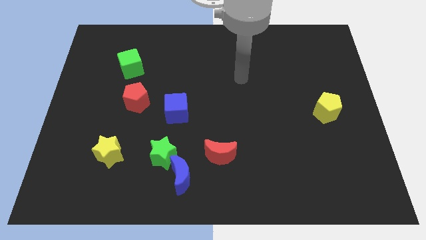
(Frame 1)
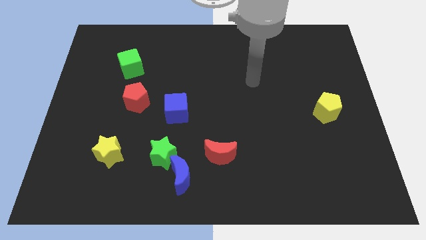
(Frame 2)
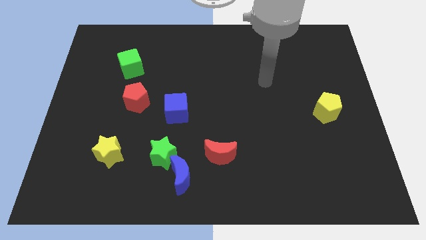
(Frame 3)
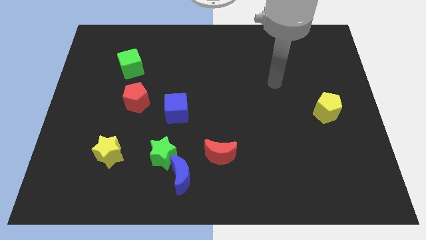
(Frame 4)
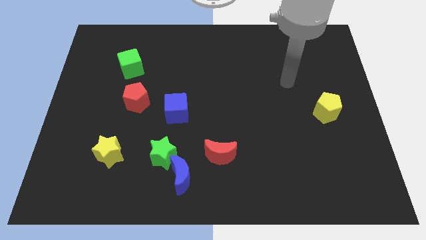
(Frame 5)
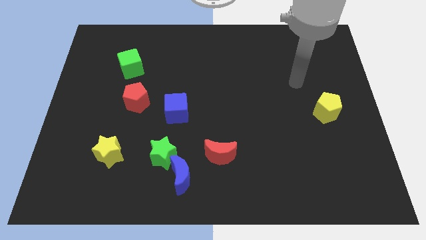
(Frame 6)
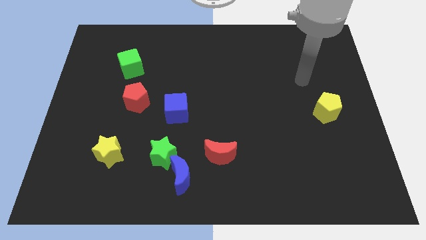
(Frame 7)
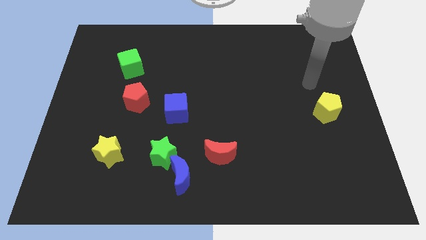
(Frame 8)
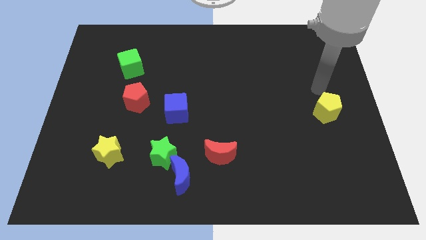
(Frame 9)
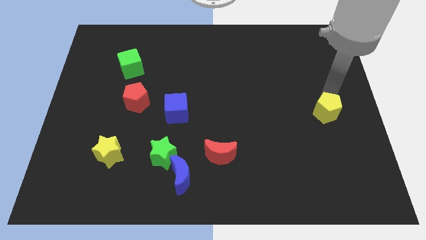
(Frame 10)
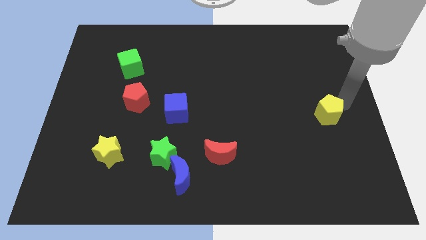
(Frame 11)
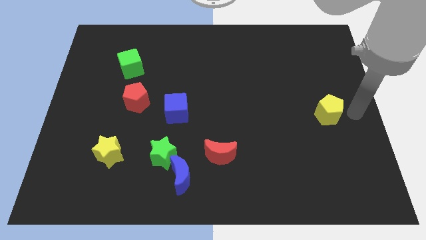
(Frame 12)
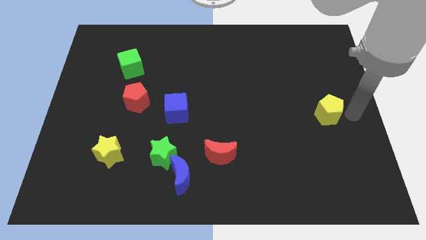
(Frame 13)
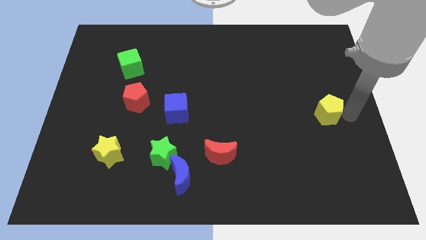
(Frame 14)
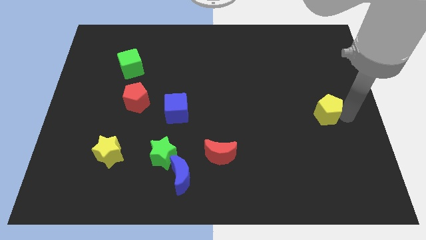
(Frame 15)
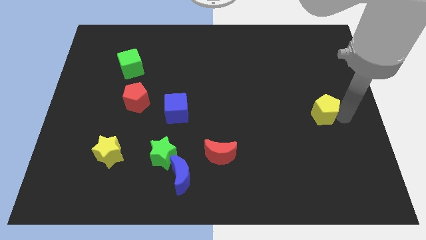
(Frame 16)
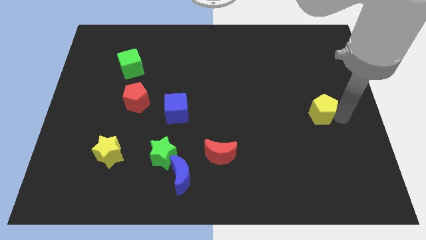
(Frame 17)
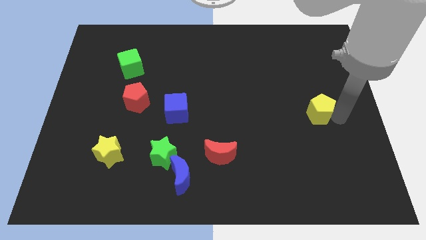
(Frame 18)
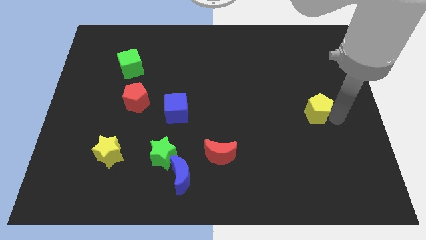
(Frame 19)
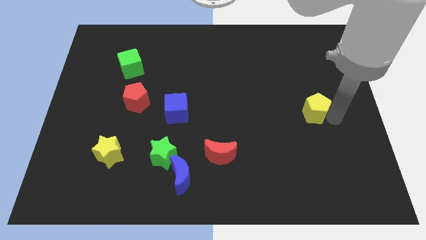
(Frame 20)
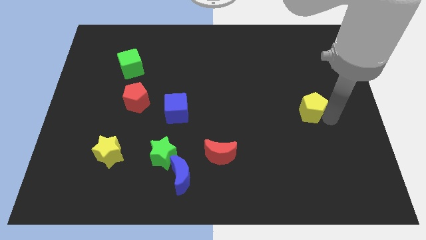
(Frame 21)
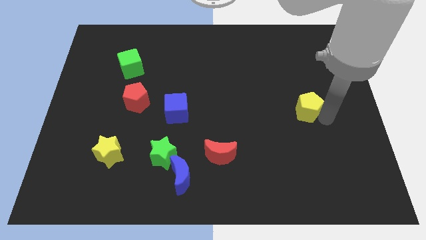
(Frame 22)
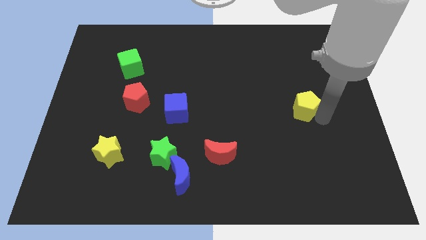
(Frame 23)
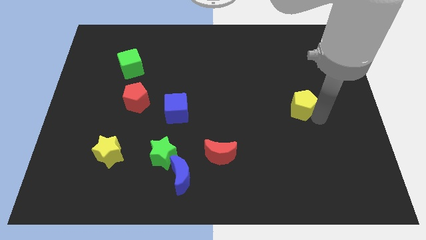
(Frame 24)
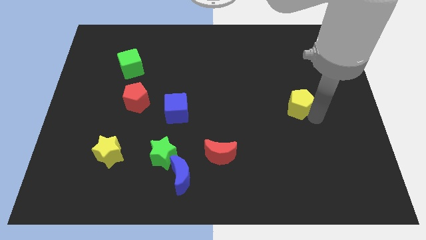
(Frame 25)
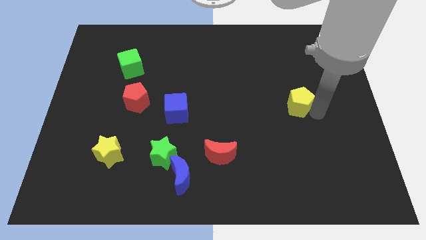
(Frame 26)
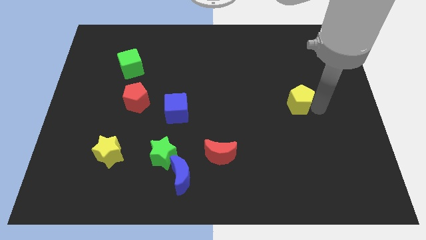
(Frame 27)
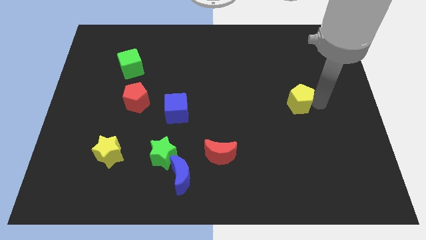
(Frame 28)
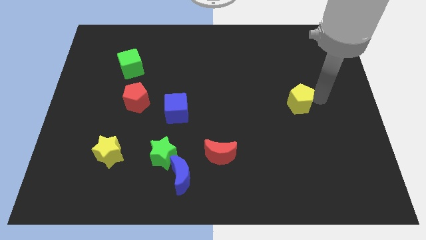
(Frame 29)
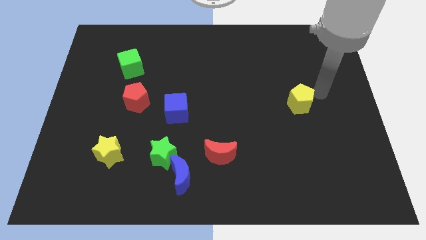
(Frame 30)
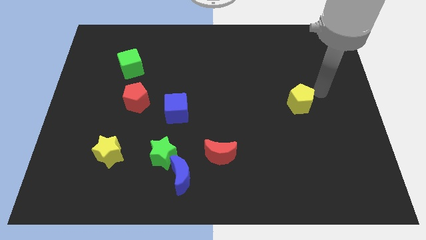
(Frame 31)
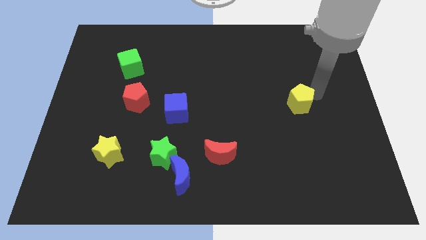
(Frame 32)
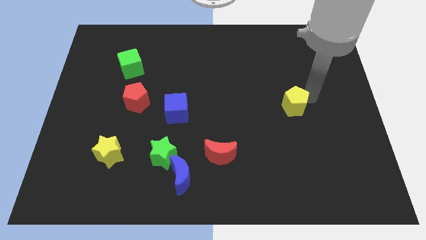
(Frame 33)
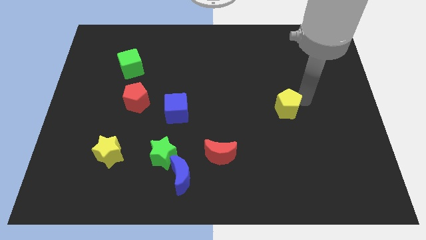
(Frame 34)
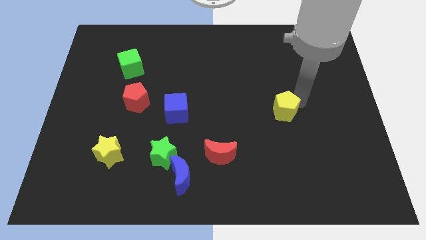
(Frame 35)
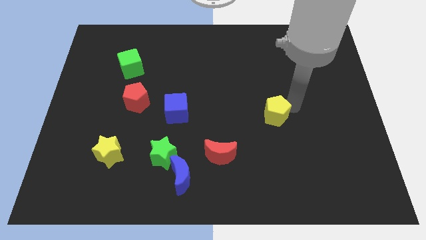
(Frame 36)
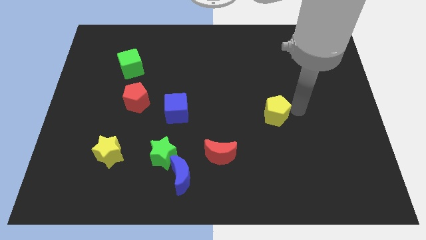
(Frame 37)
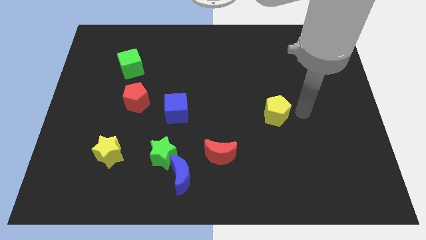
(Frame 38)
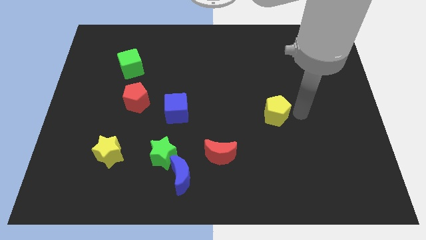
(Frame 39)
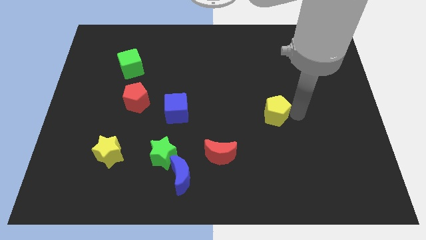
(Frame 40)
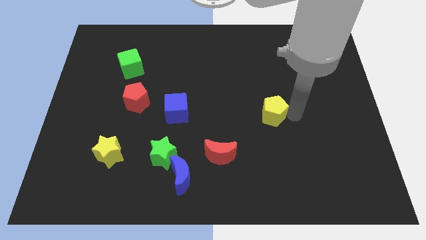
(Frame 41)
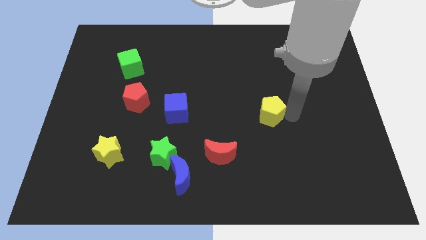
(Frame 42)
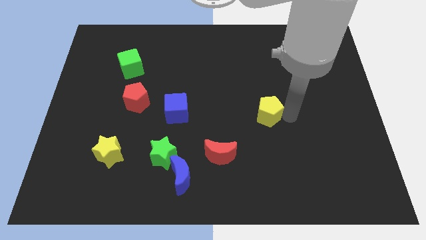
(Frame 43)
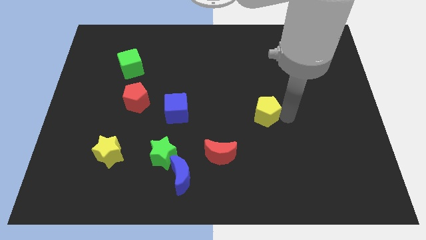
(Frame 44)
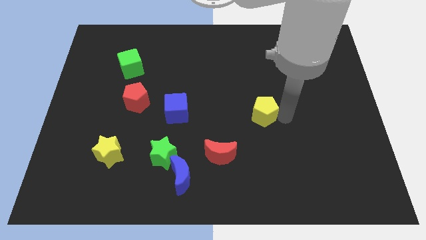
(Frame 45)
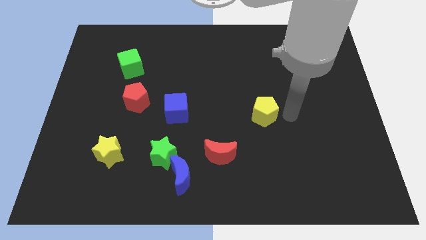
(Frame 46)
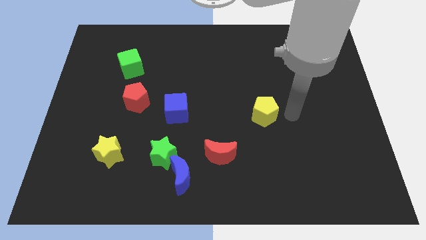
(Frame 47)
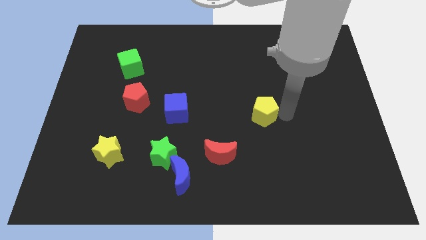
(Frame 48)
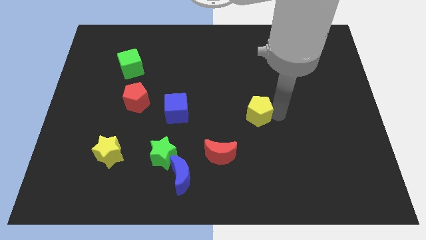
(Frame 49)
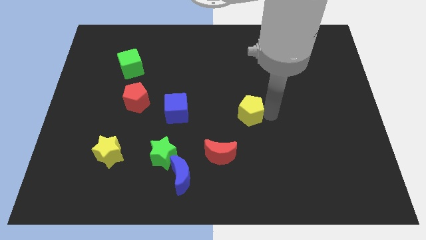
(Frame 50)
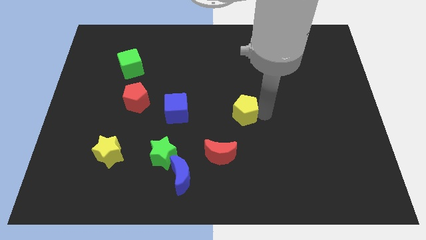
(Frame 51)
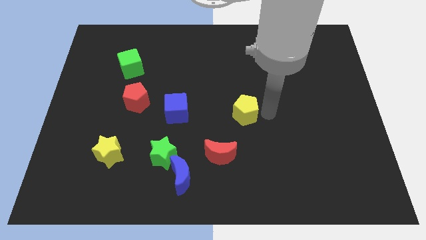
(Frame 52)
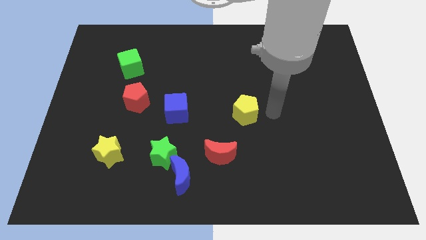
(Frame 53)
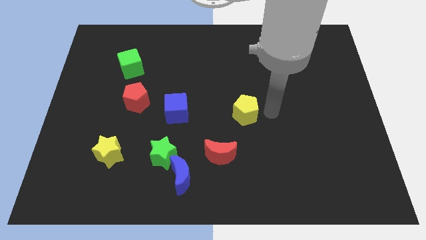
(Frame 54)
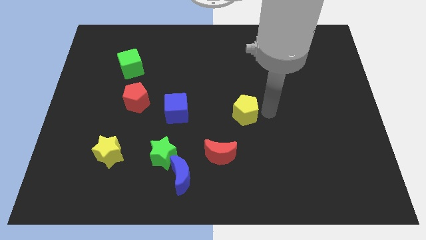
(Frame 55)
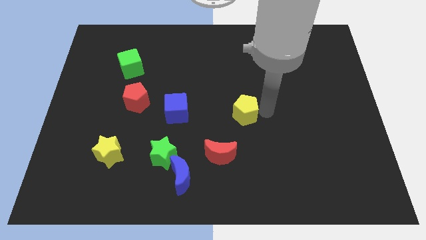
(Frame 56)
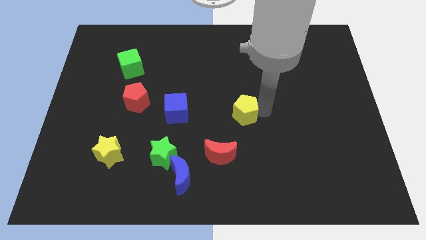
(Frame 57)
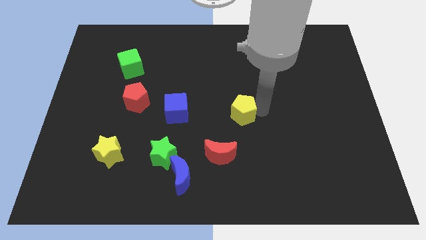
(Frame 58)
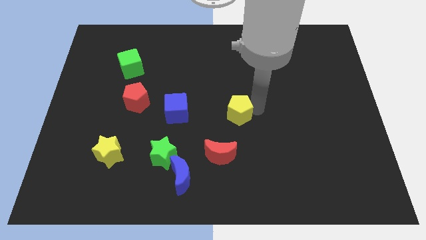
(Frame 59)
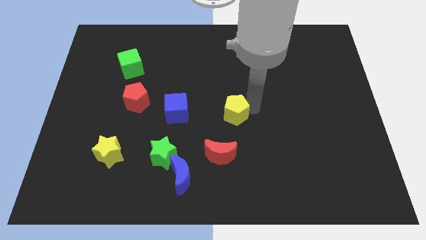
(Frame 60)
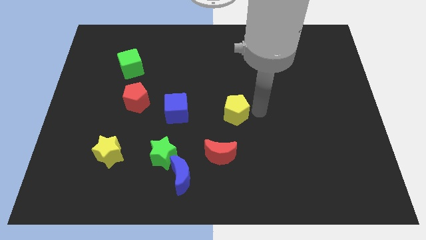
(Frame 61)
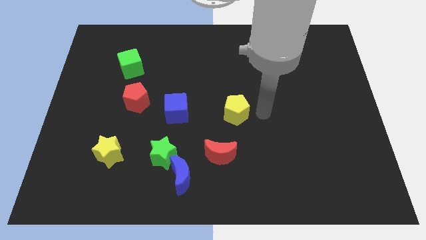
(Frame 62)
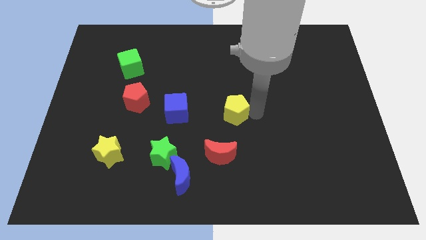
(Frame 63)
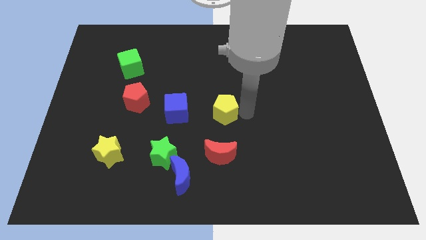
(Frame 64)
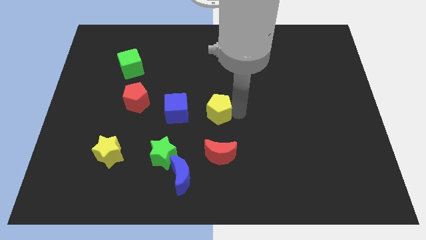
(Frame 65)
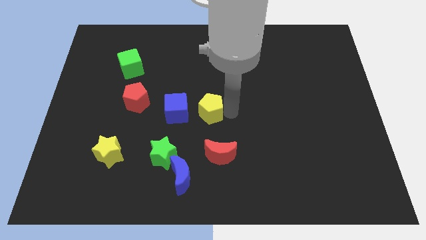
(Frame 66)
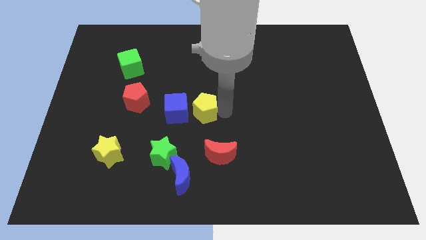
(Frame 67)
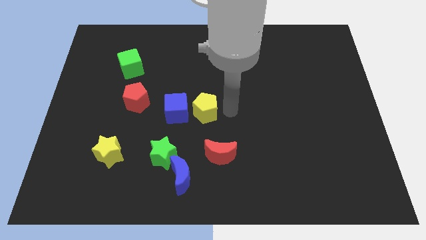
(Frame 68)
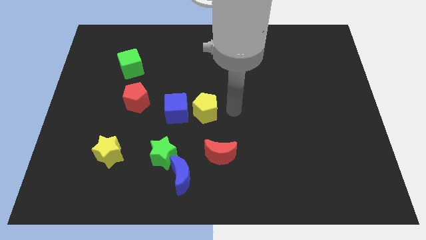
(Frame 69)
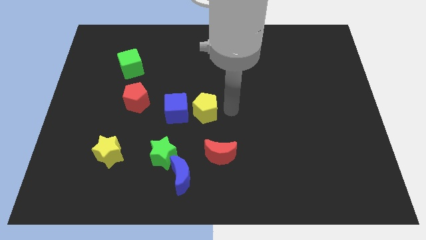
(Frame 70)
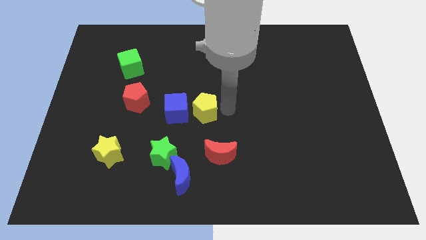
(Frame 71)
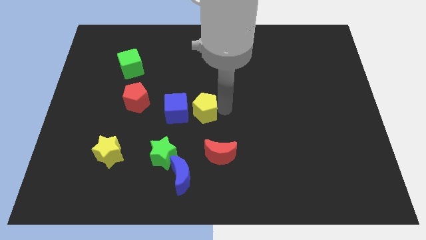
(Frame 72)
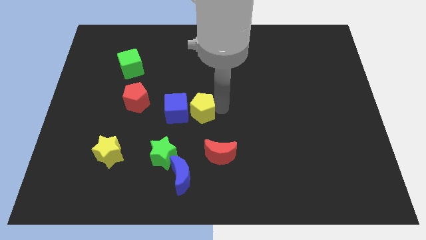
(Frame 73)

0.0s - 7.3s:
push the yellow pentagon close to the blue cube
